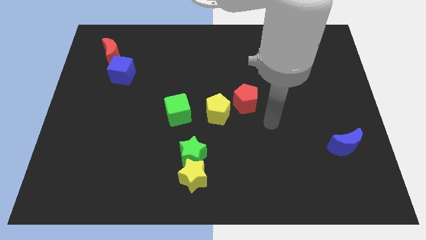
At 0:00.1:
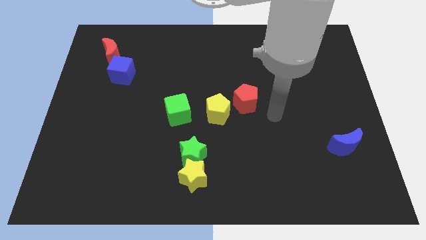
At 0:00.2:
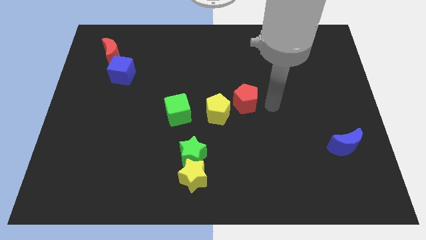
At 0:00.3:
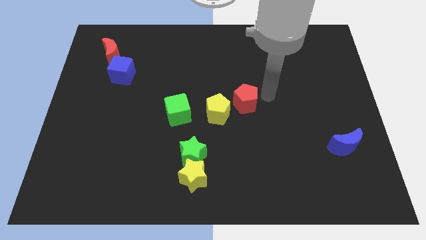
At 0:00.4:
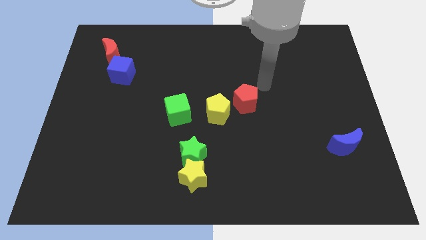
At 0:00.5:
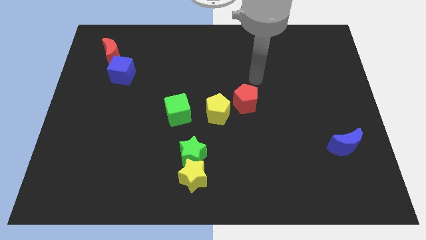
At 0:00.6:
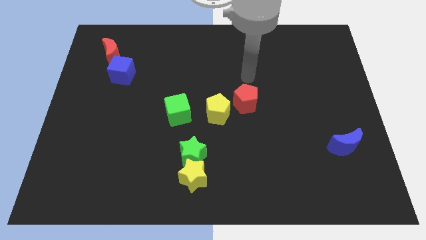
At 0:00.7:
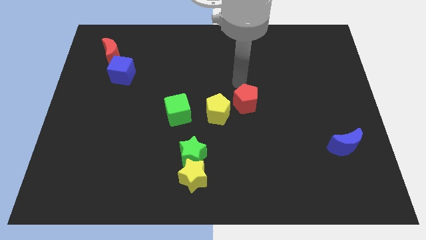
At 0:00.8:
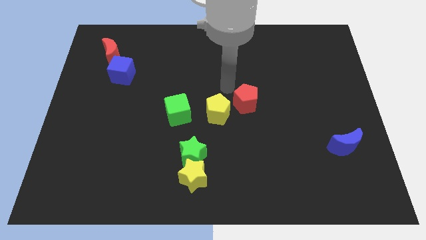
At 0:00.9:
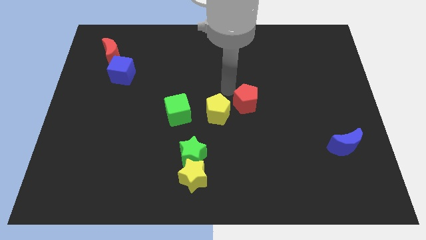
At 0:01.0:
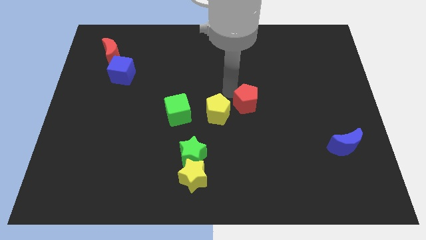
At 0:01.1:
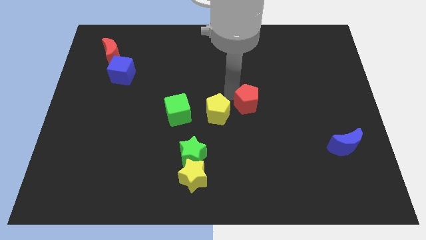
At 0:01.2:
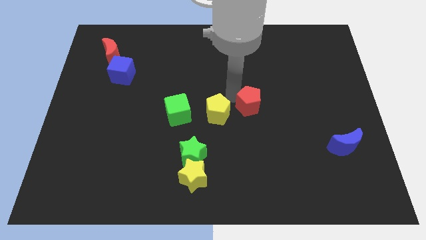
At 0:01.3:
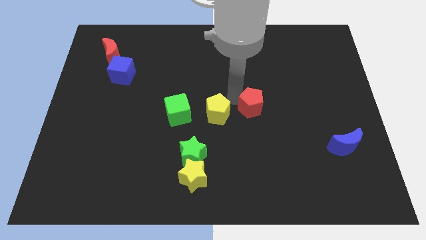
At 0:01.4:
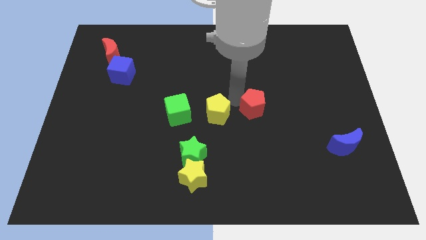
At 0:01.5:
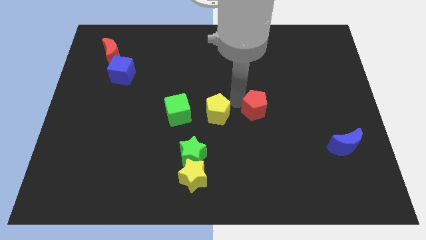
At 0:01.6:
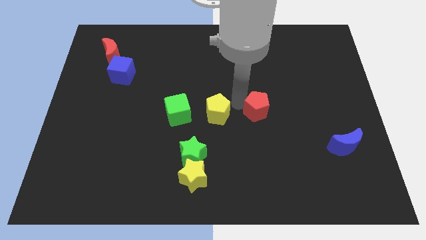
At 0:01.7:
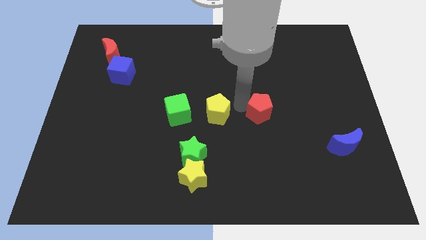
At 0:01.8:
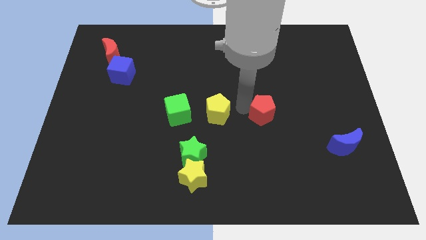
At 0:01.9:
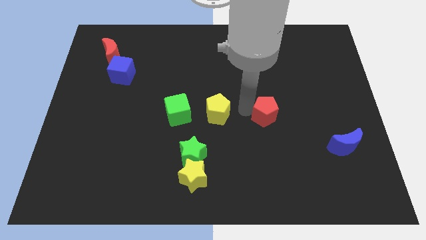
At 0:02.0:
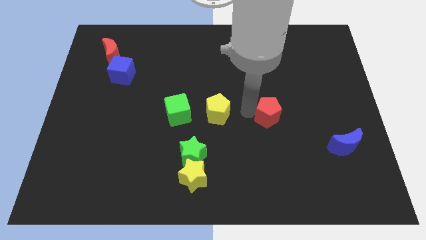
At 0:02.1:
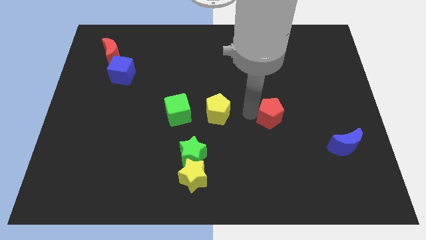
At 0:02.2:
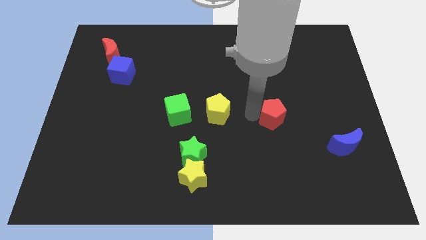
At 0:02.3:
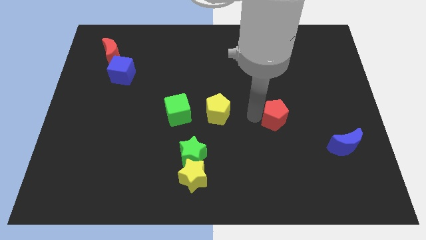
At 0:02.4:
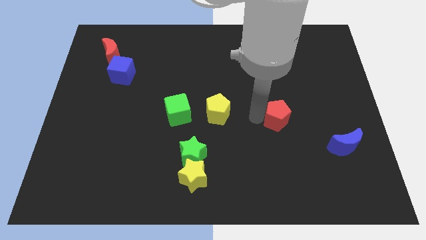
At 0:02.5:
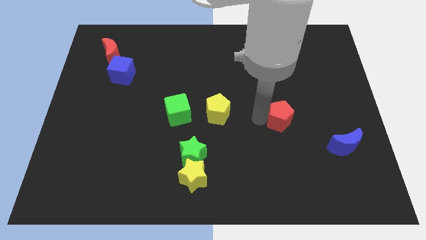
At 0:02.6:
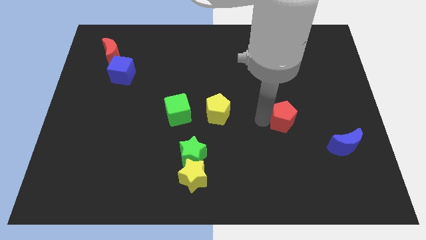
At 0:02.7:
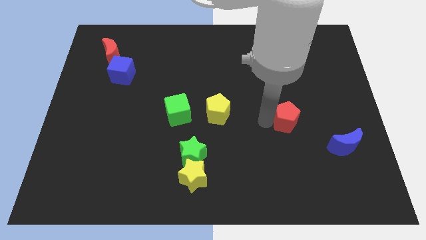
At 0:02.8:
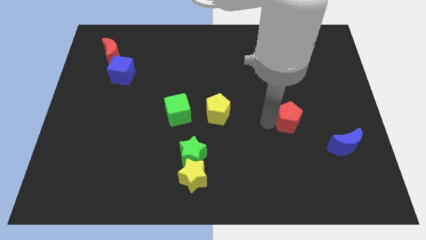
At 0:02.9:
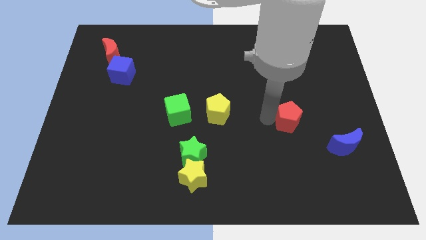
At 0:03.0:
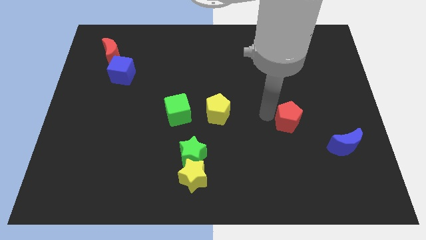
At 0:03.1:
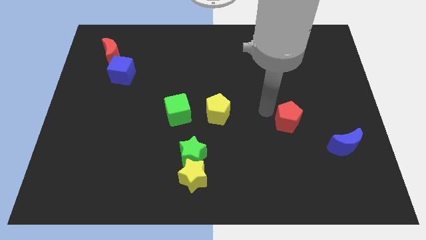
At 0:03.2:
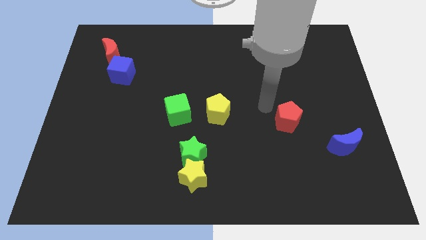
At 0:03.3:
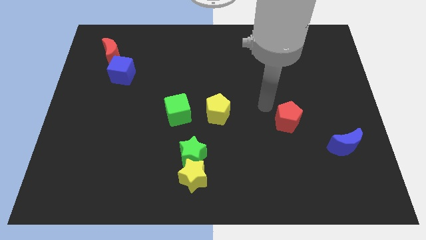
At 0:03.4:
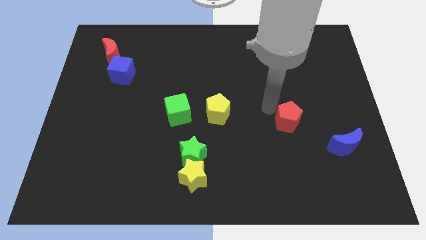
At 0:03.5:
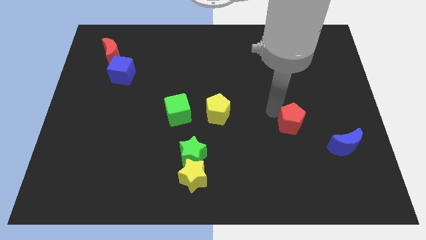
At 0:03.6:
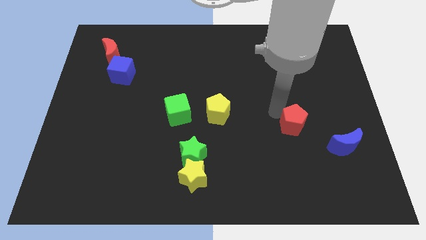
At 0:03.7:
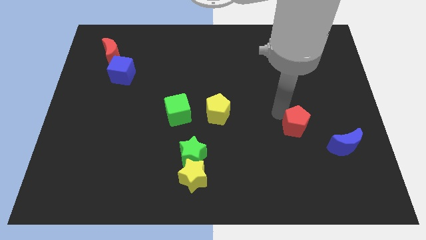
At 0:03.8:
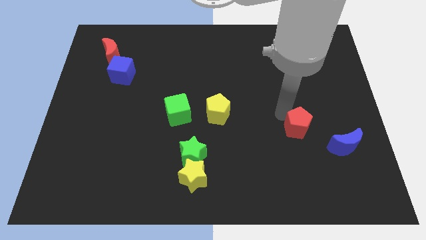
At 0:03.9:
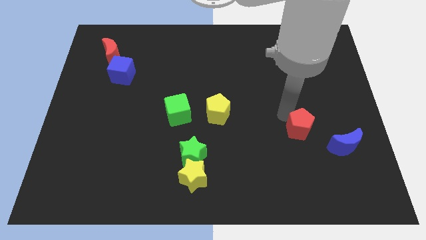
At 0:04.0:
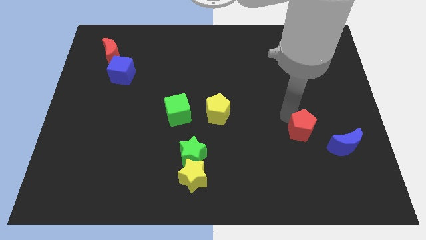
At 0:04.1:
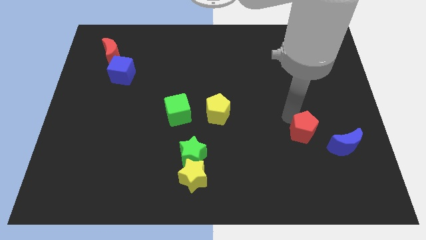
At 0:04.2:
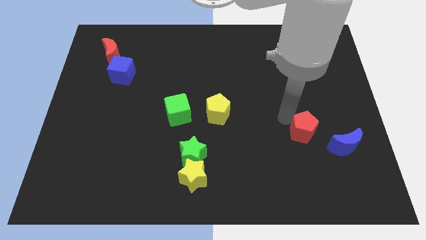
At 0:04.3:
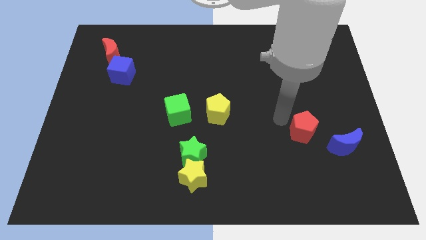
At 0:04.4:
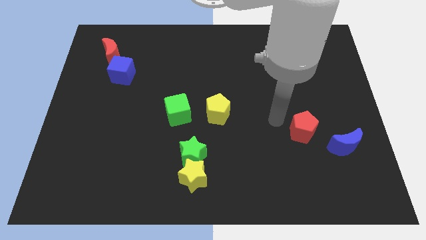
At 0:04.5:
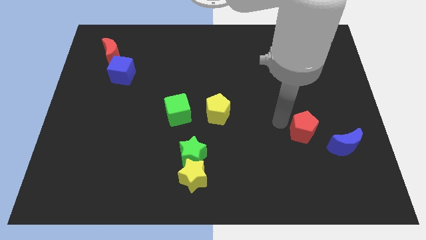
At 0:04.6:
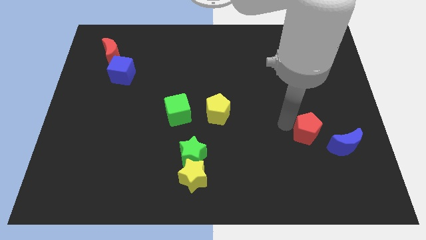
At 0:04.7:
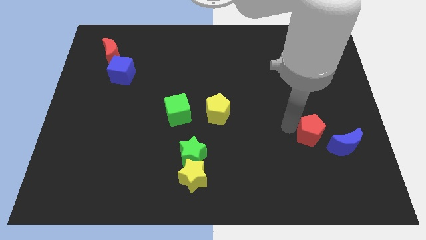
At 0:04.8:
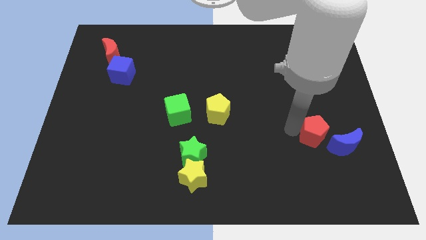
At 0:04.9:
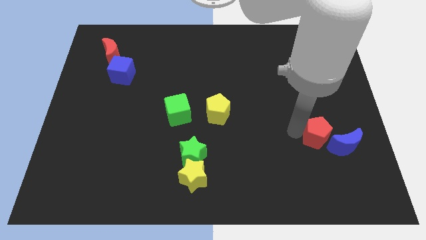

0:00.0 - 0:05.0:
move the red pentagon next to the blue moon

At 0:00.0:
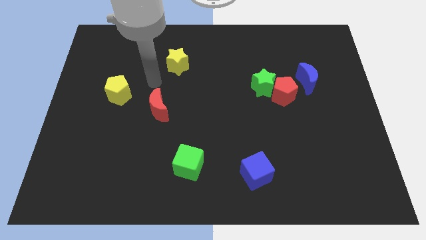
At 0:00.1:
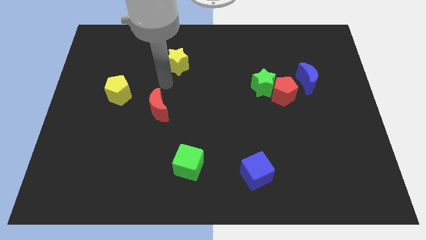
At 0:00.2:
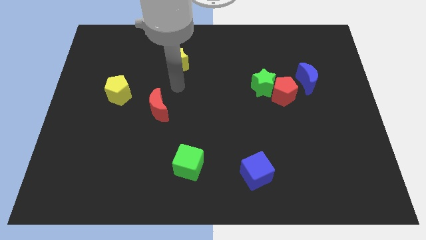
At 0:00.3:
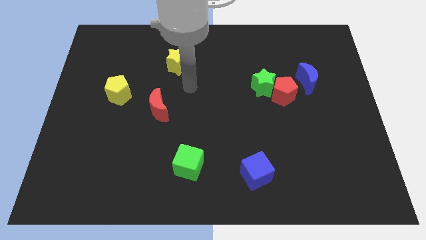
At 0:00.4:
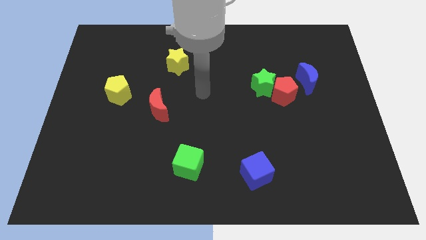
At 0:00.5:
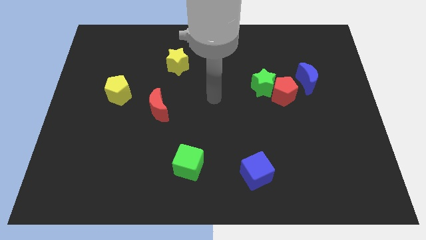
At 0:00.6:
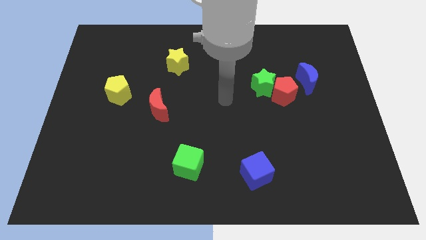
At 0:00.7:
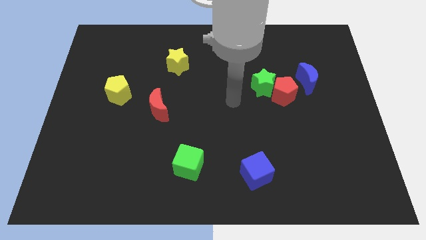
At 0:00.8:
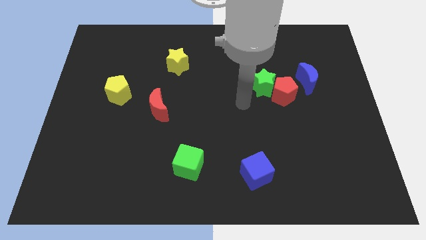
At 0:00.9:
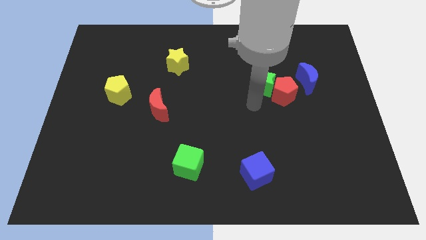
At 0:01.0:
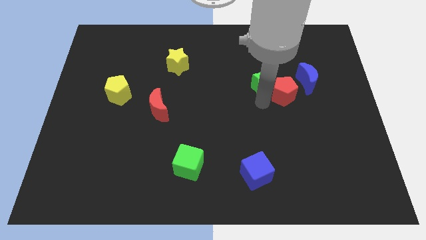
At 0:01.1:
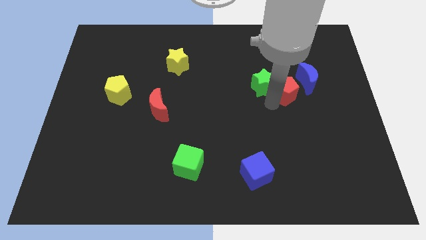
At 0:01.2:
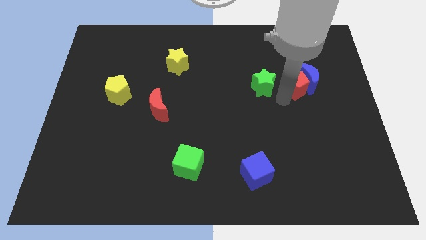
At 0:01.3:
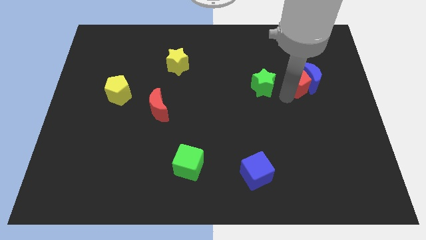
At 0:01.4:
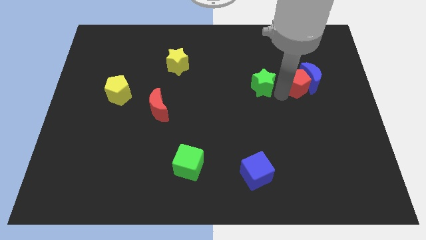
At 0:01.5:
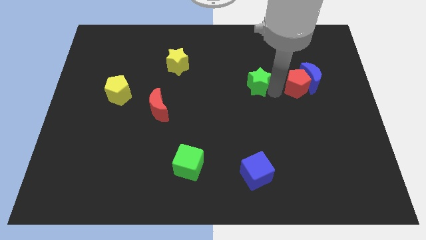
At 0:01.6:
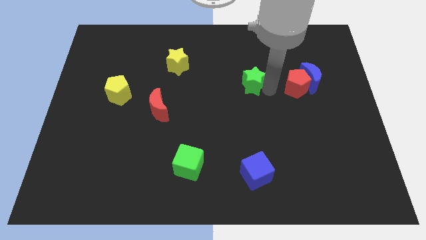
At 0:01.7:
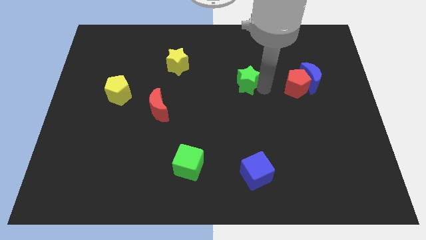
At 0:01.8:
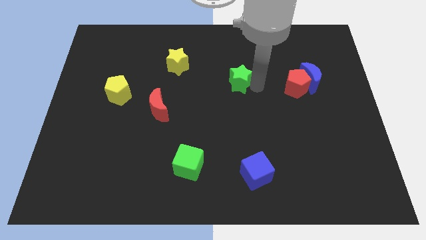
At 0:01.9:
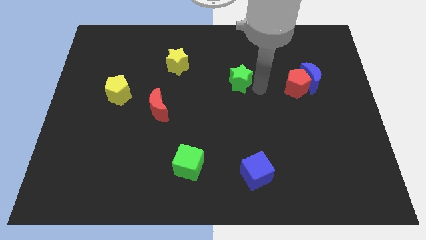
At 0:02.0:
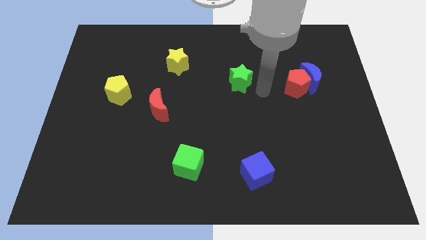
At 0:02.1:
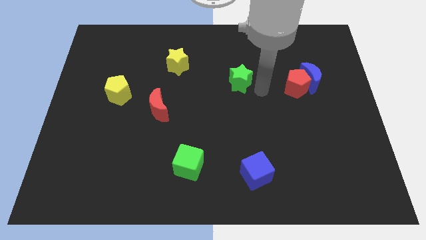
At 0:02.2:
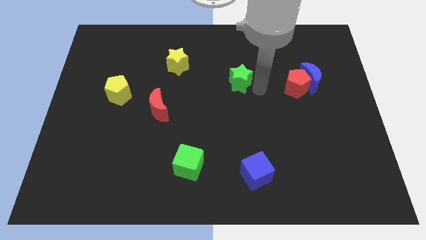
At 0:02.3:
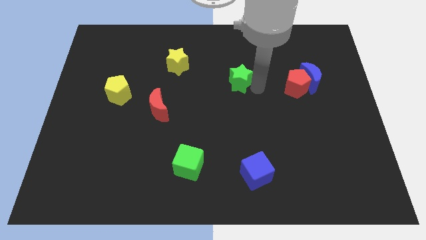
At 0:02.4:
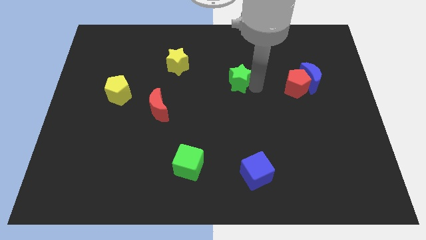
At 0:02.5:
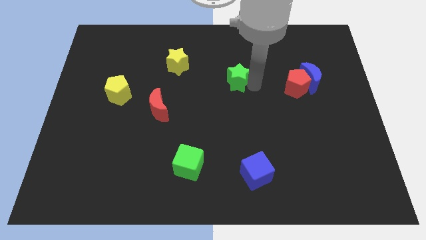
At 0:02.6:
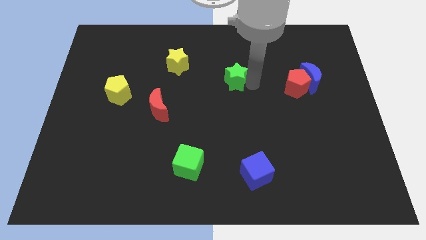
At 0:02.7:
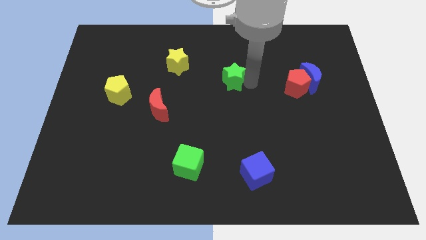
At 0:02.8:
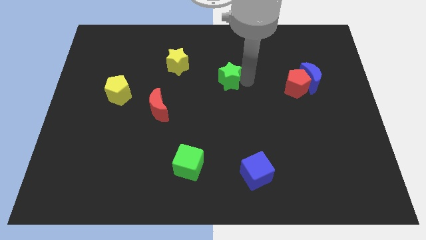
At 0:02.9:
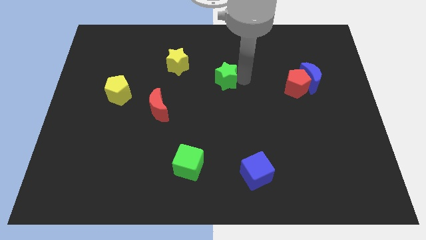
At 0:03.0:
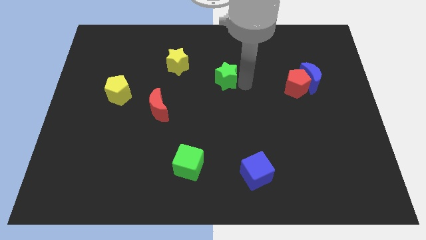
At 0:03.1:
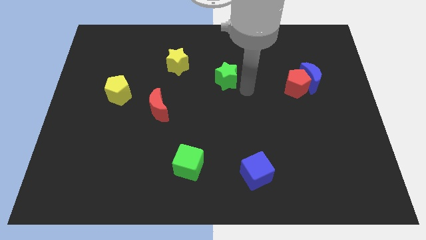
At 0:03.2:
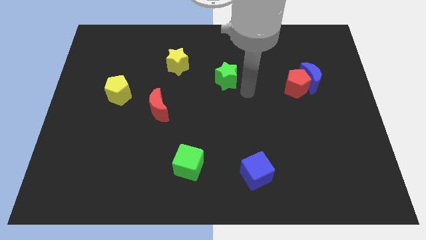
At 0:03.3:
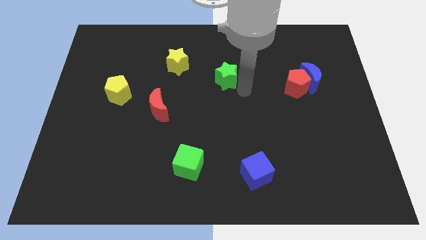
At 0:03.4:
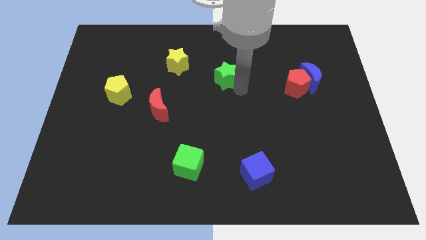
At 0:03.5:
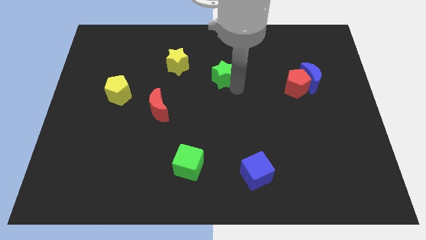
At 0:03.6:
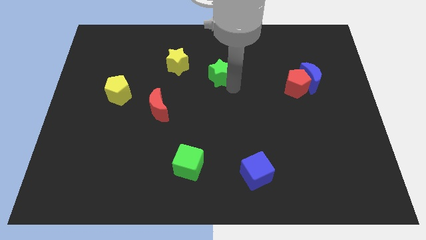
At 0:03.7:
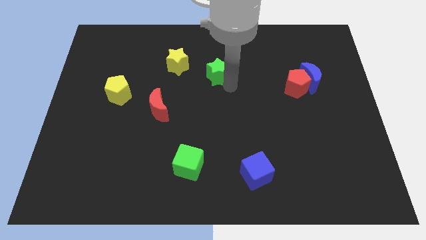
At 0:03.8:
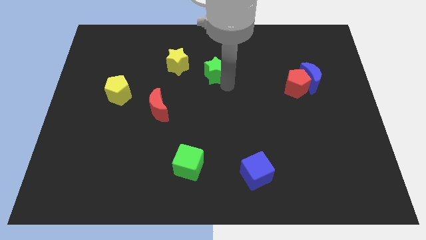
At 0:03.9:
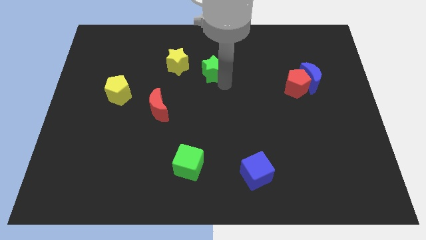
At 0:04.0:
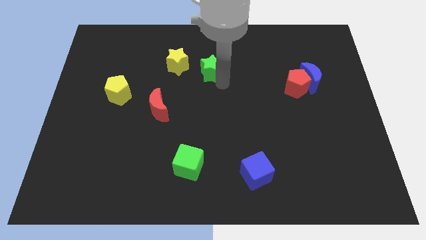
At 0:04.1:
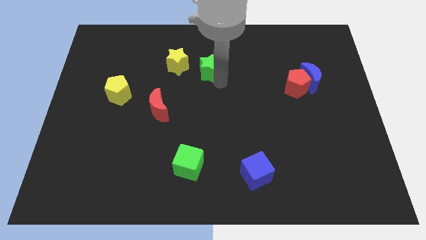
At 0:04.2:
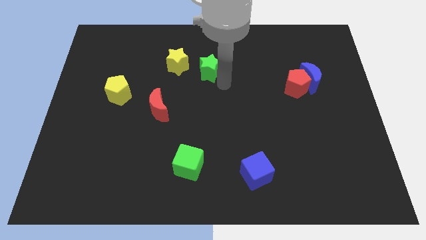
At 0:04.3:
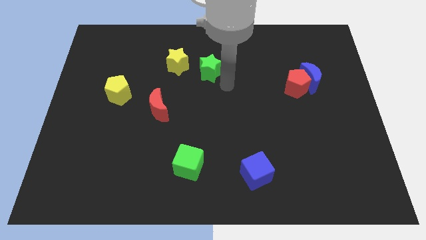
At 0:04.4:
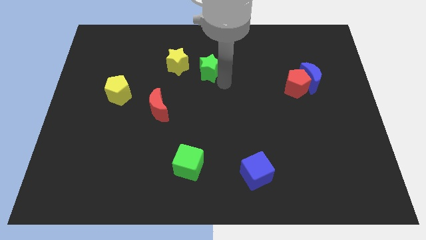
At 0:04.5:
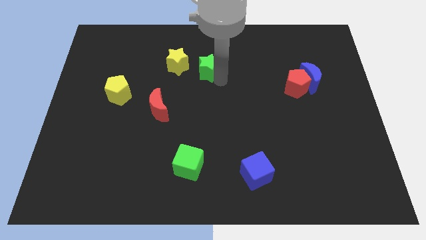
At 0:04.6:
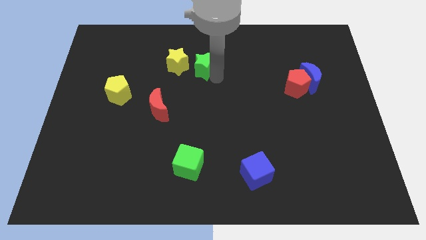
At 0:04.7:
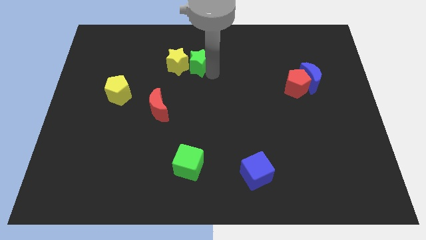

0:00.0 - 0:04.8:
move the green star towards the yellow star
